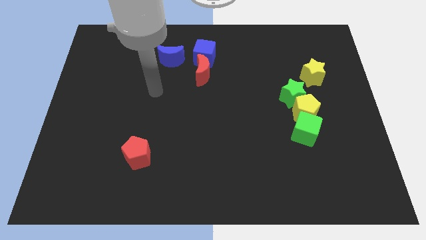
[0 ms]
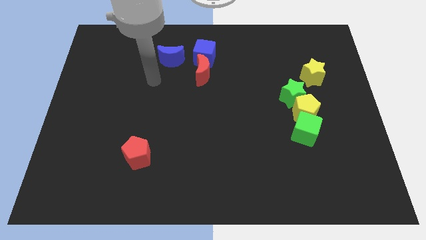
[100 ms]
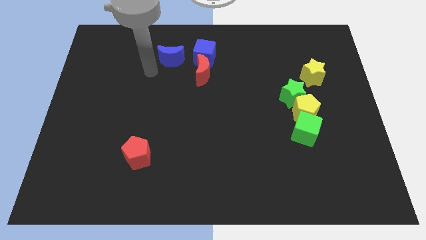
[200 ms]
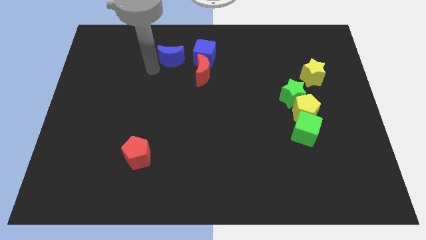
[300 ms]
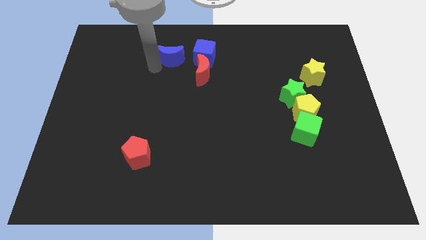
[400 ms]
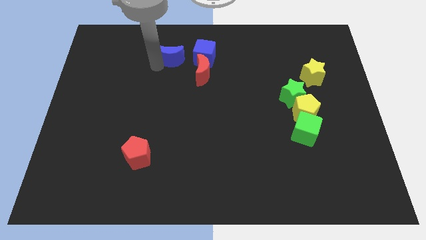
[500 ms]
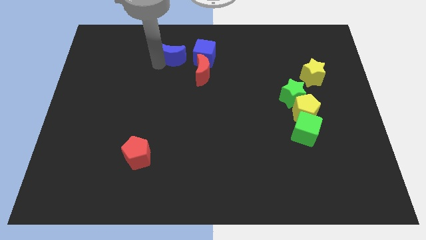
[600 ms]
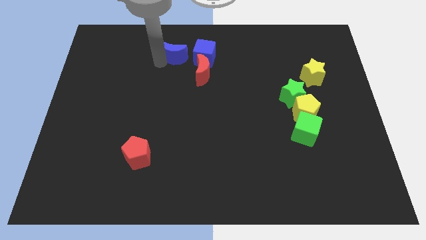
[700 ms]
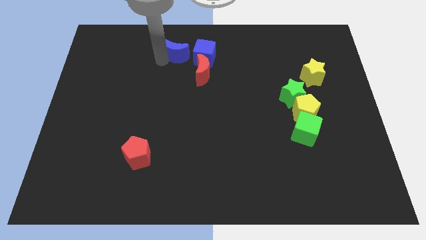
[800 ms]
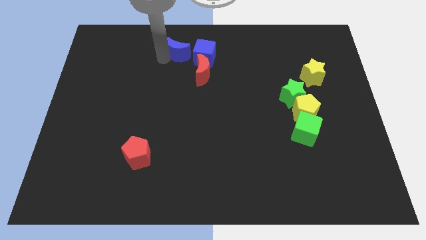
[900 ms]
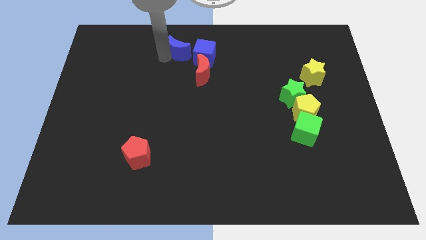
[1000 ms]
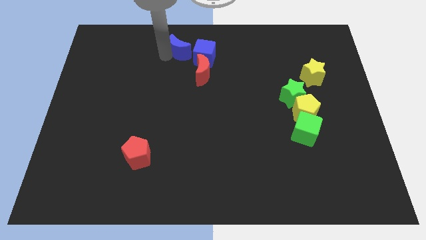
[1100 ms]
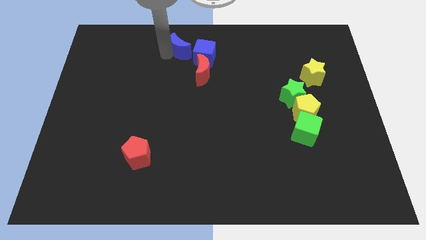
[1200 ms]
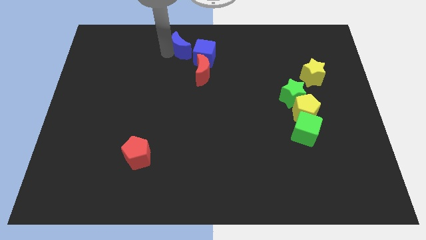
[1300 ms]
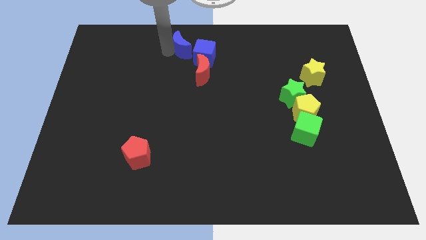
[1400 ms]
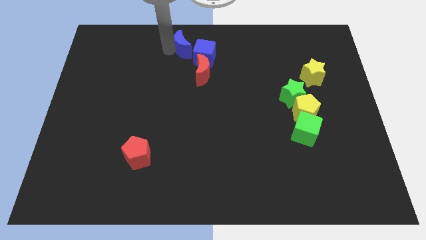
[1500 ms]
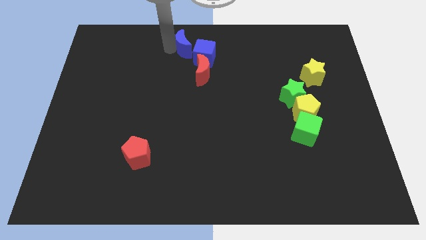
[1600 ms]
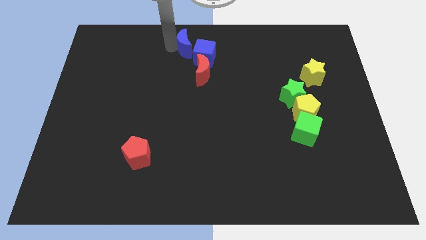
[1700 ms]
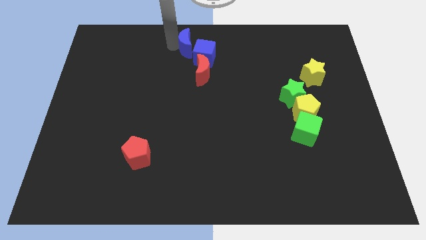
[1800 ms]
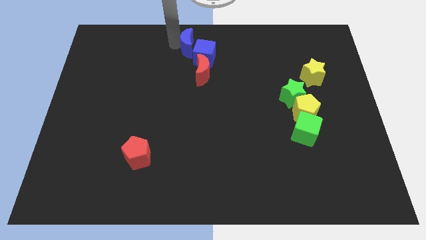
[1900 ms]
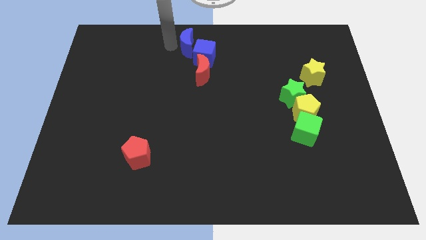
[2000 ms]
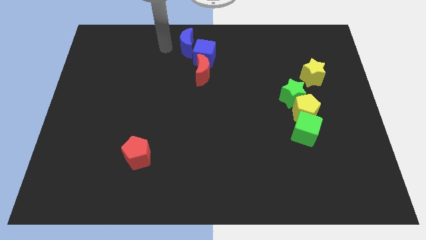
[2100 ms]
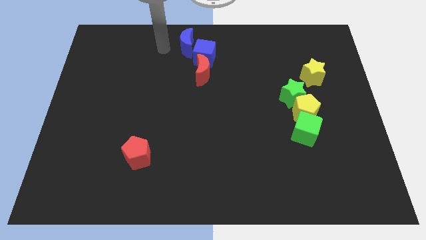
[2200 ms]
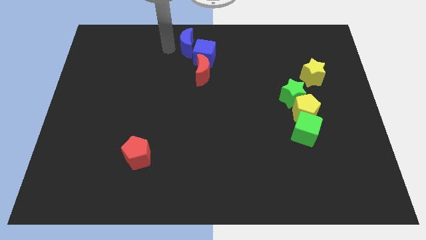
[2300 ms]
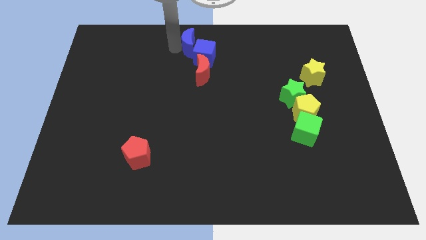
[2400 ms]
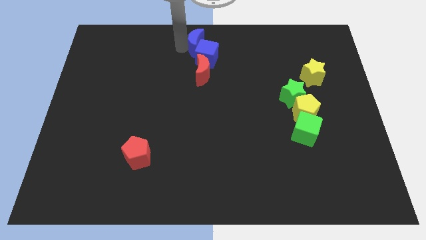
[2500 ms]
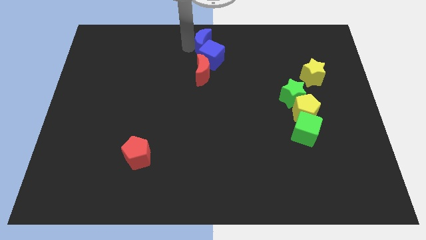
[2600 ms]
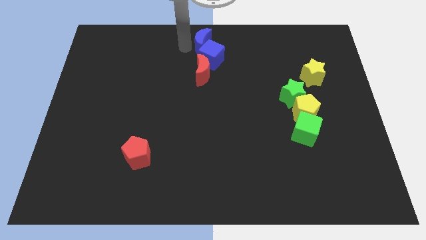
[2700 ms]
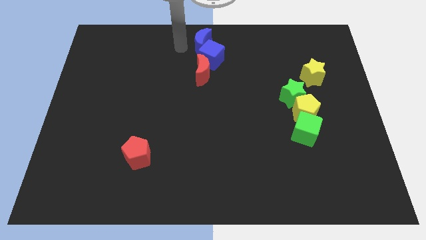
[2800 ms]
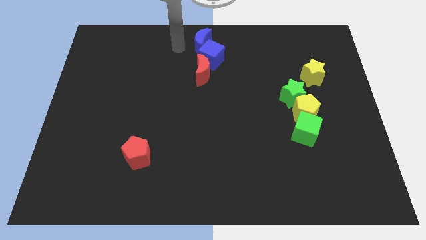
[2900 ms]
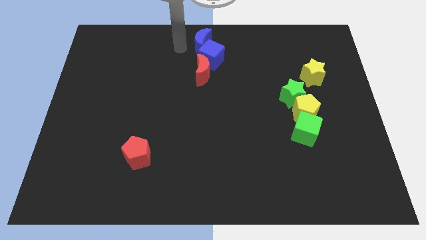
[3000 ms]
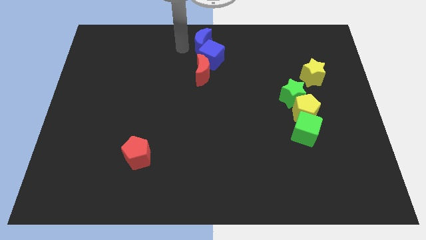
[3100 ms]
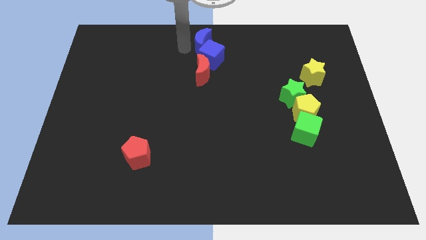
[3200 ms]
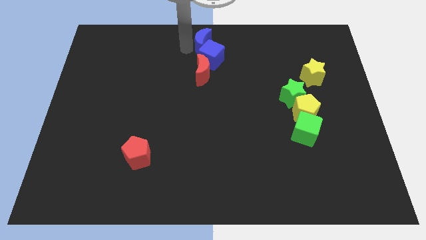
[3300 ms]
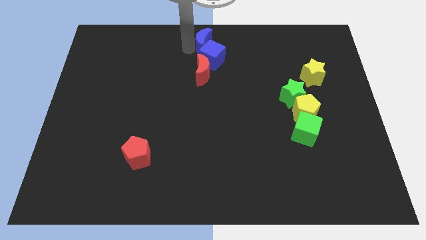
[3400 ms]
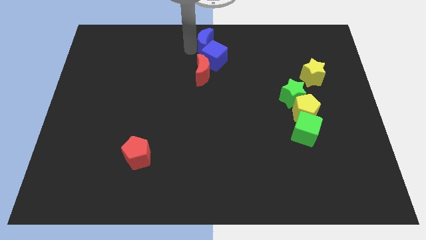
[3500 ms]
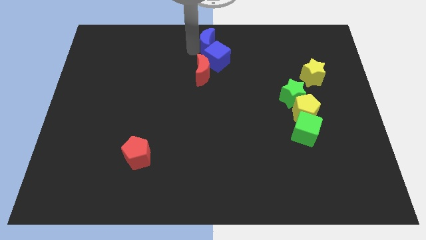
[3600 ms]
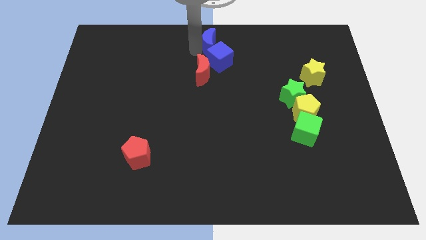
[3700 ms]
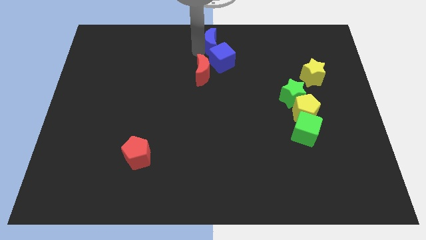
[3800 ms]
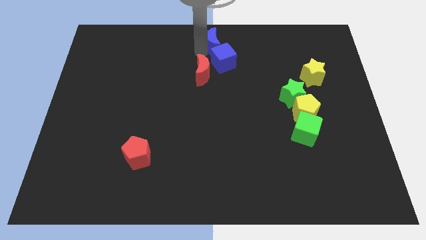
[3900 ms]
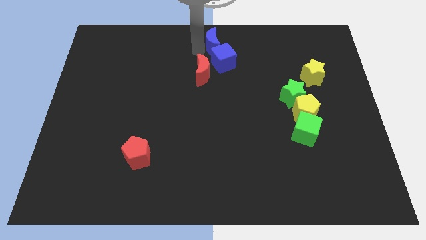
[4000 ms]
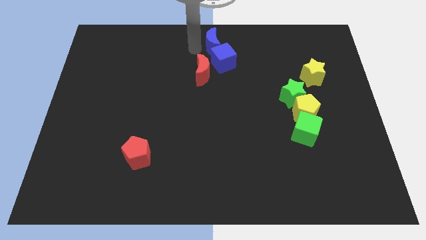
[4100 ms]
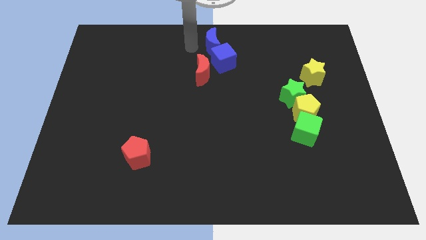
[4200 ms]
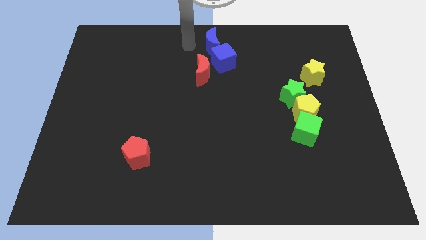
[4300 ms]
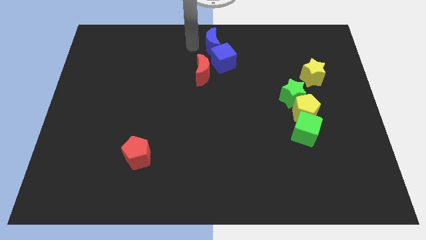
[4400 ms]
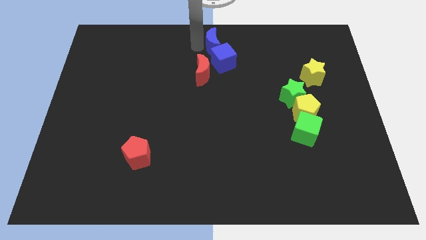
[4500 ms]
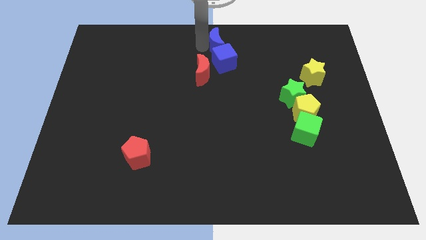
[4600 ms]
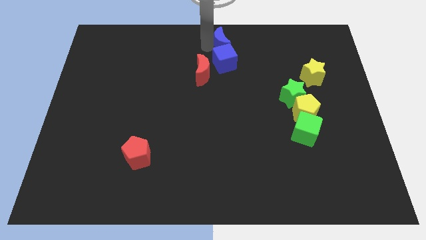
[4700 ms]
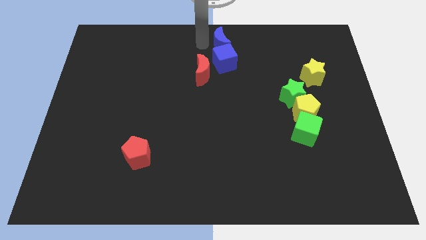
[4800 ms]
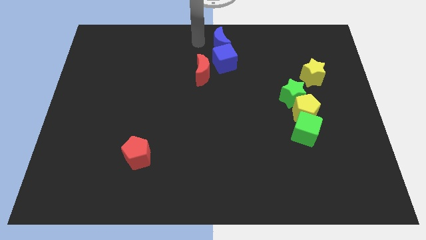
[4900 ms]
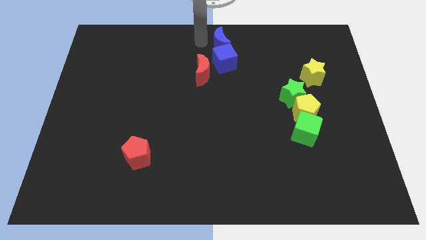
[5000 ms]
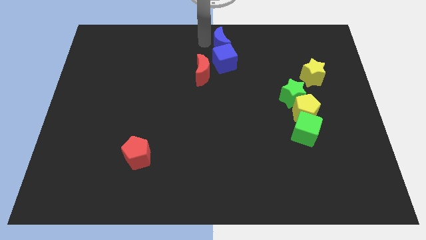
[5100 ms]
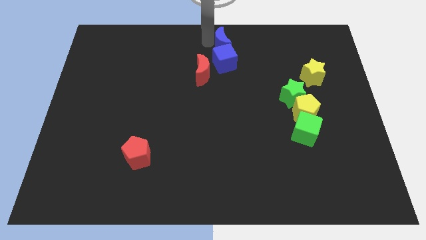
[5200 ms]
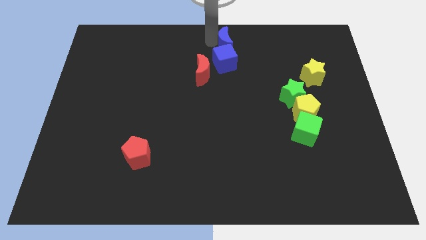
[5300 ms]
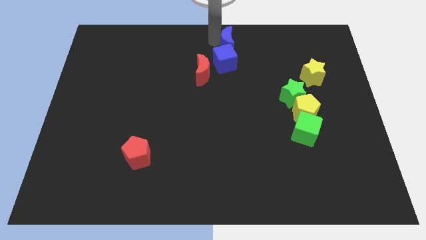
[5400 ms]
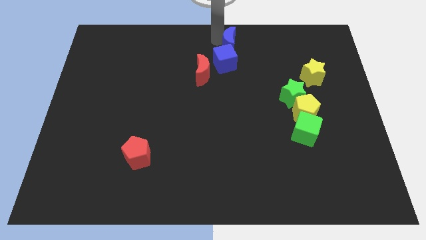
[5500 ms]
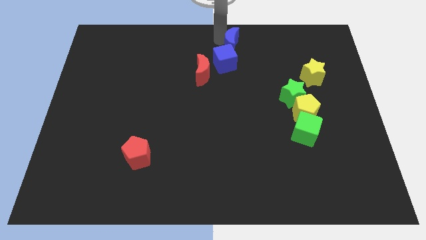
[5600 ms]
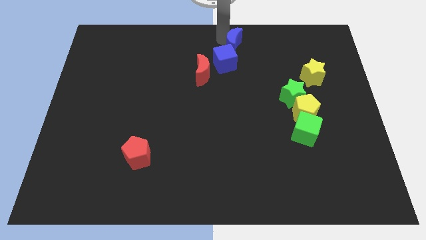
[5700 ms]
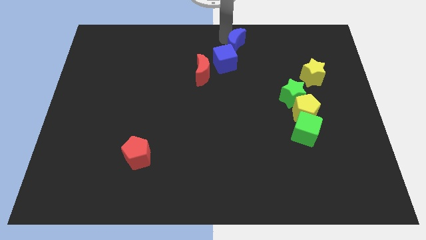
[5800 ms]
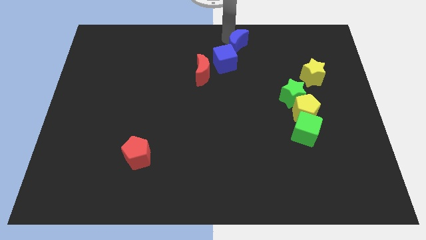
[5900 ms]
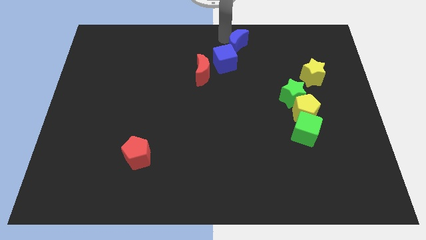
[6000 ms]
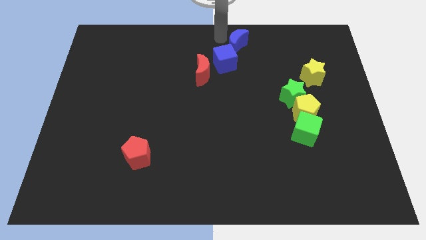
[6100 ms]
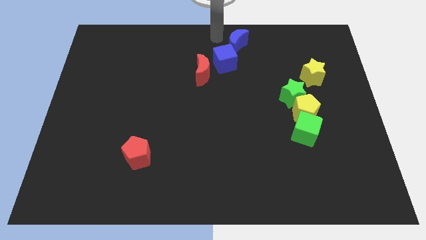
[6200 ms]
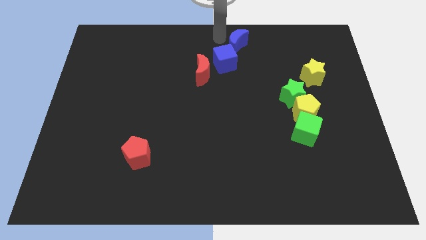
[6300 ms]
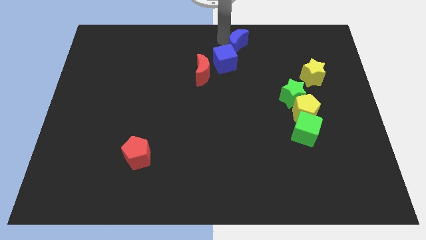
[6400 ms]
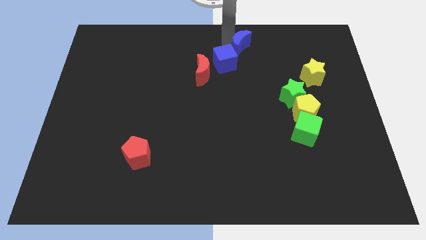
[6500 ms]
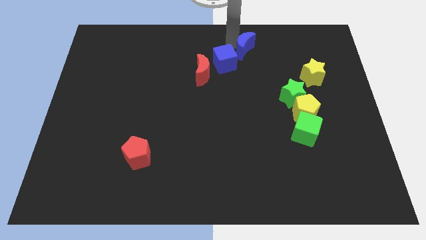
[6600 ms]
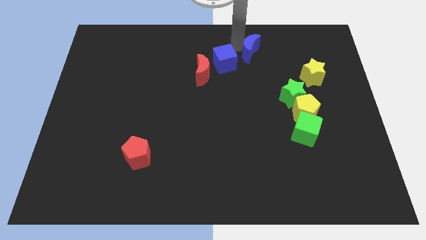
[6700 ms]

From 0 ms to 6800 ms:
move the blue moon to the right

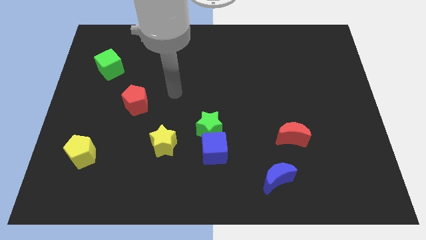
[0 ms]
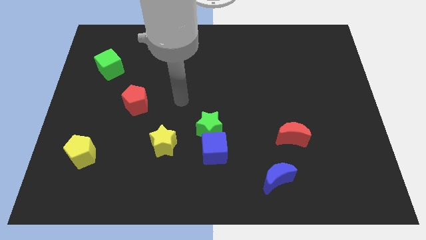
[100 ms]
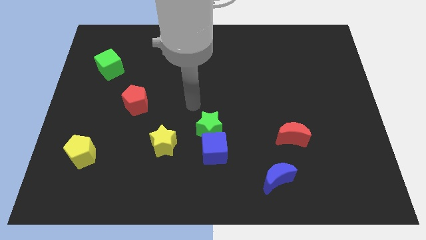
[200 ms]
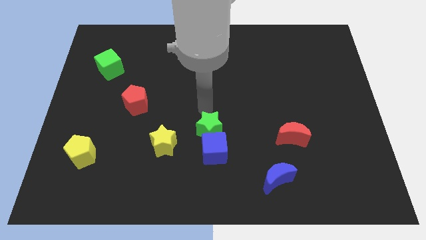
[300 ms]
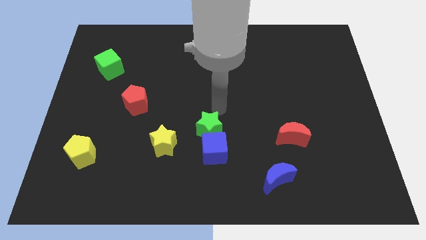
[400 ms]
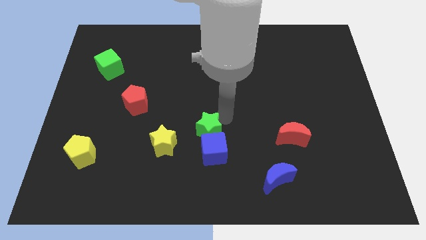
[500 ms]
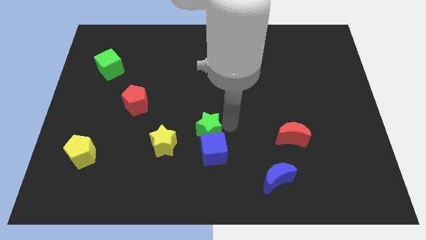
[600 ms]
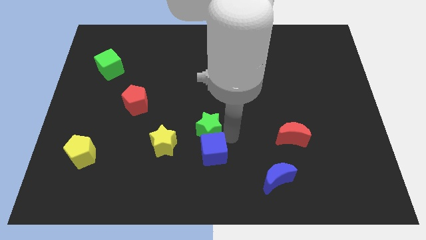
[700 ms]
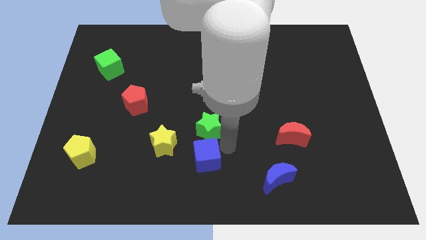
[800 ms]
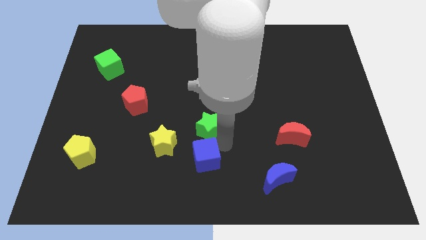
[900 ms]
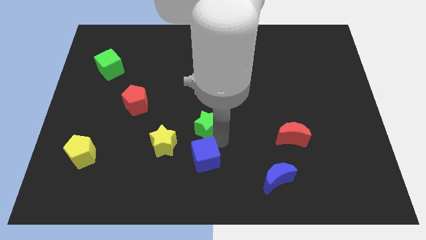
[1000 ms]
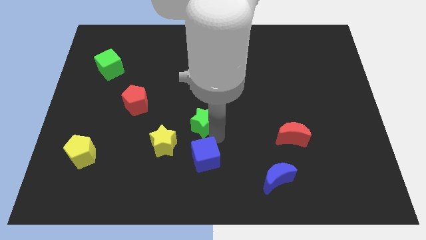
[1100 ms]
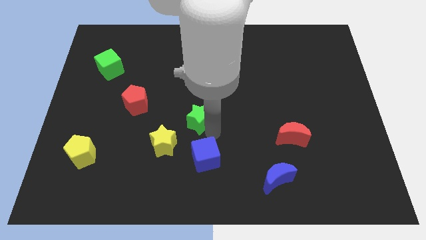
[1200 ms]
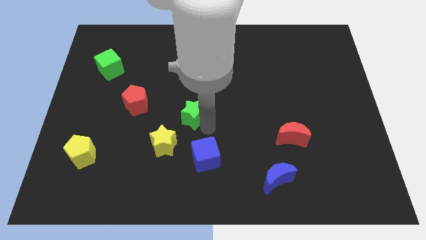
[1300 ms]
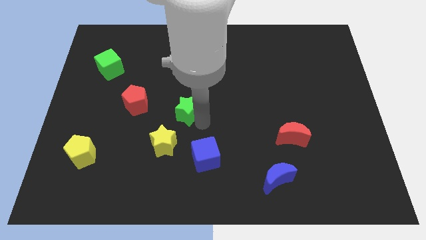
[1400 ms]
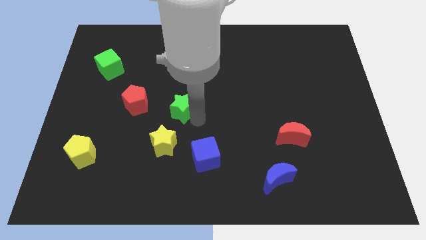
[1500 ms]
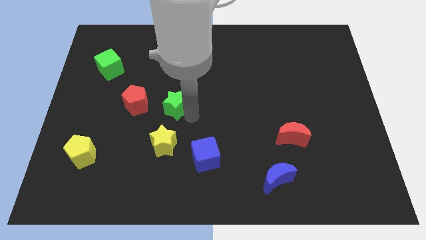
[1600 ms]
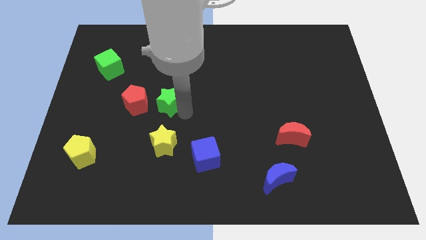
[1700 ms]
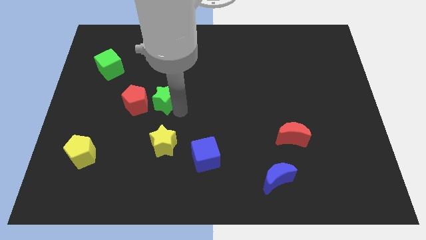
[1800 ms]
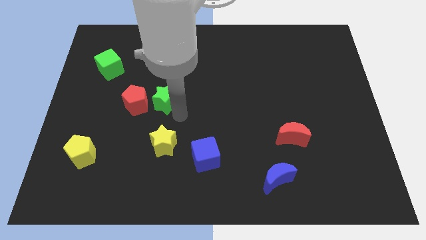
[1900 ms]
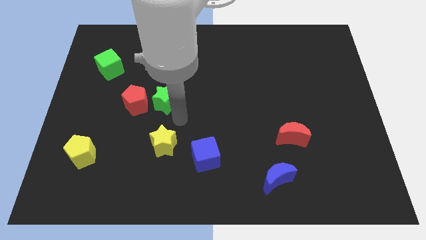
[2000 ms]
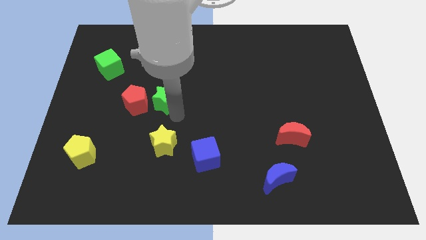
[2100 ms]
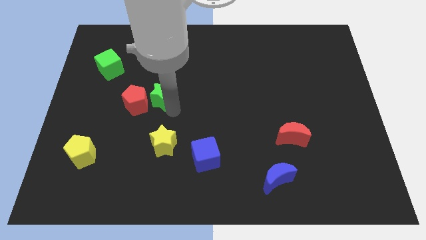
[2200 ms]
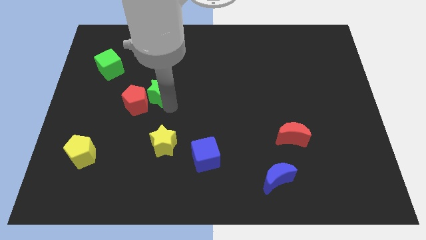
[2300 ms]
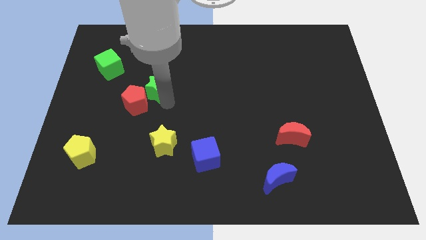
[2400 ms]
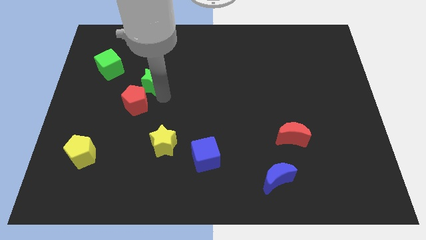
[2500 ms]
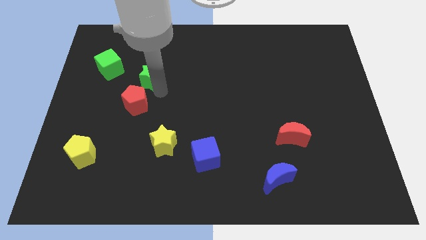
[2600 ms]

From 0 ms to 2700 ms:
push the green star up and then to the left
